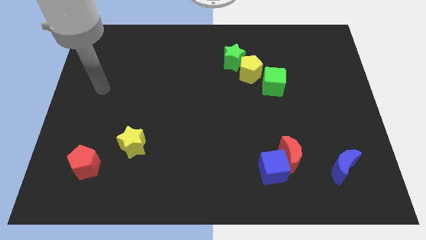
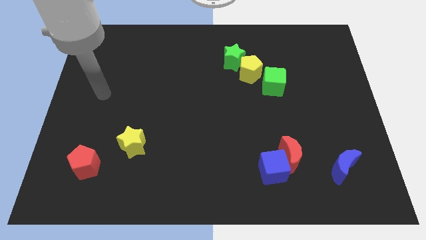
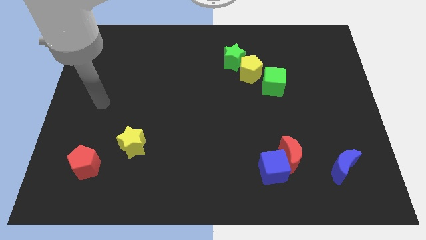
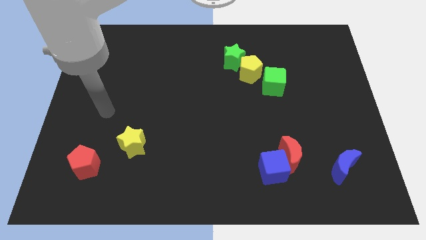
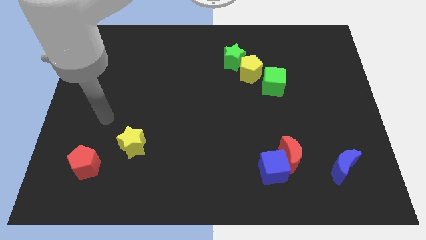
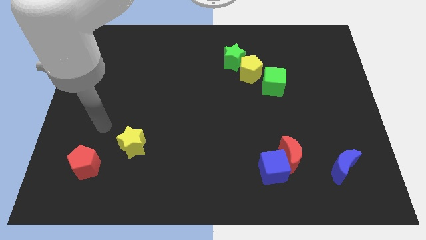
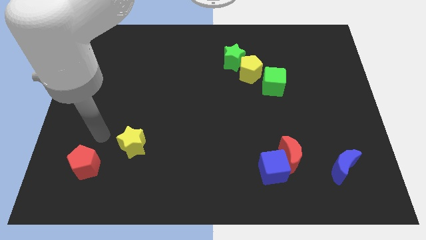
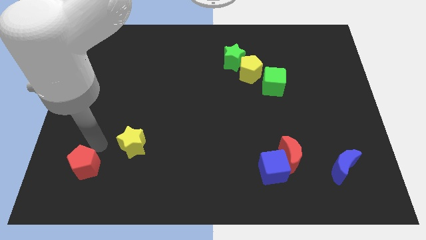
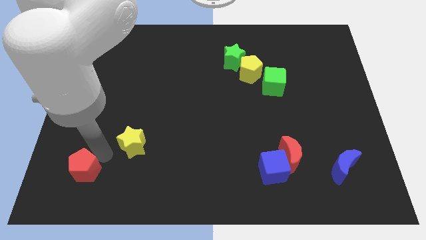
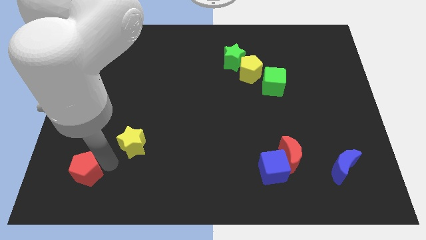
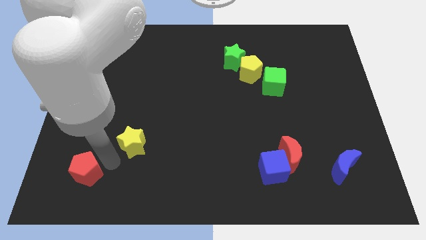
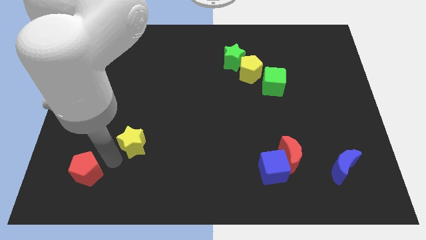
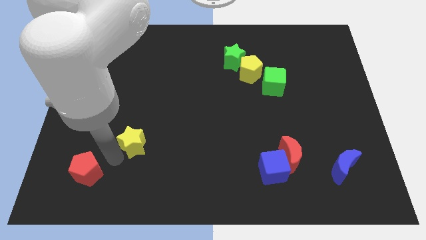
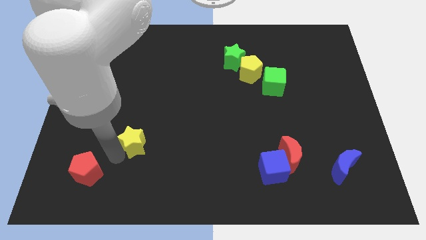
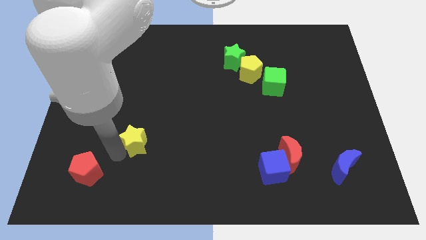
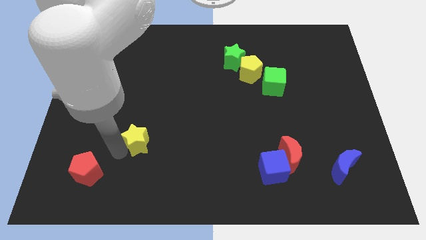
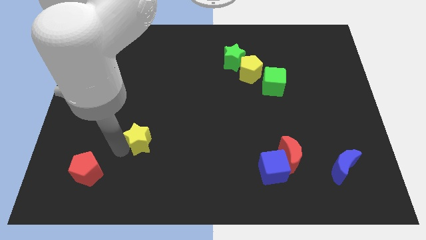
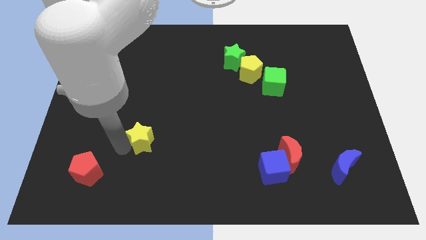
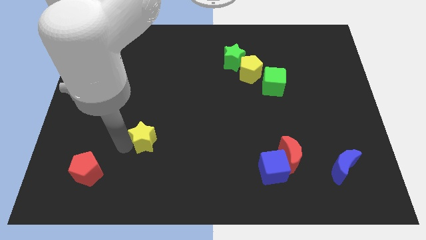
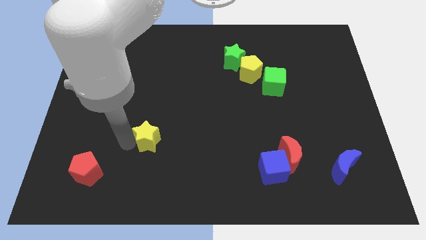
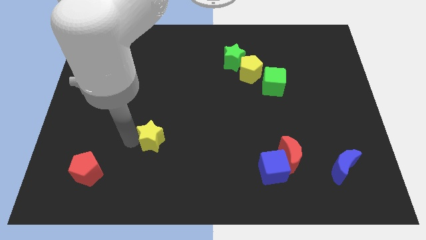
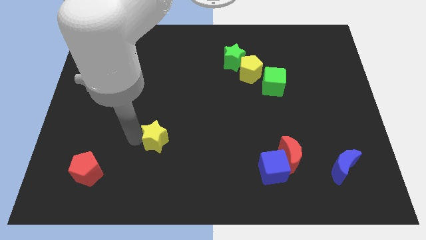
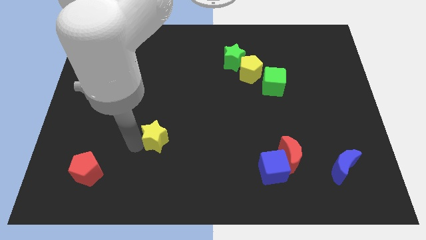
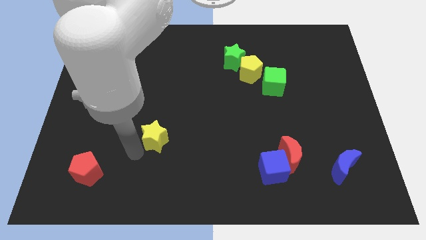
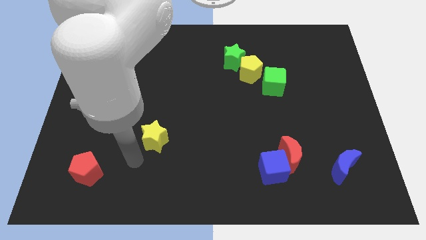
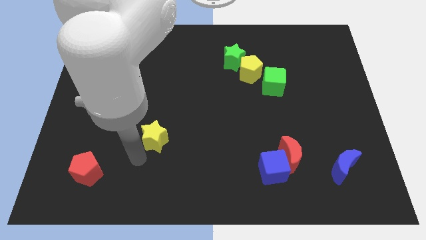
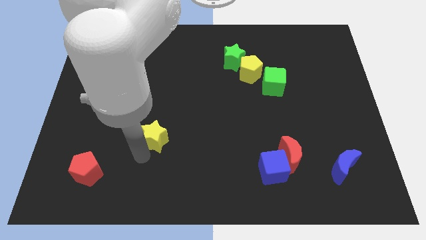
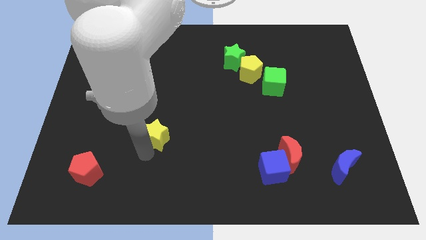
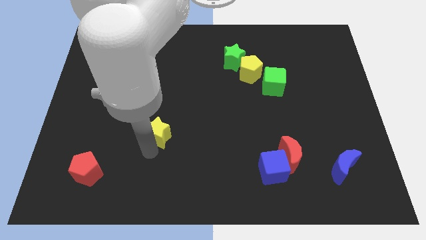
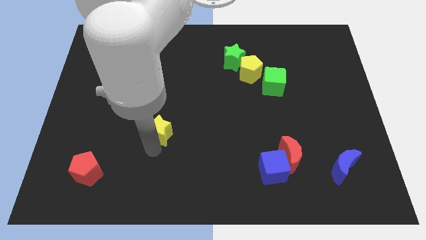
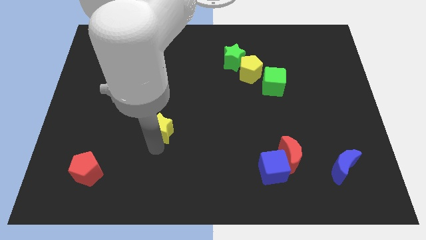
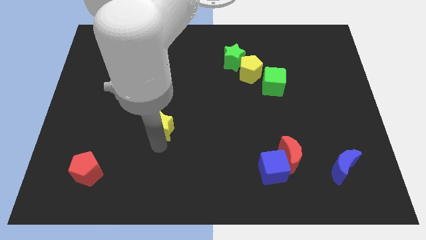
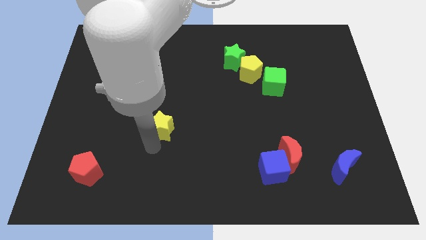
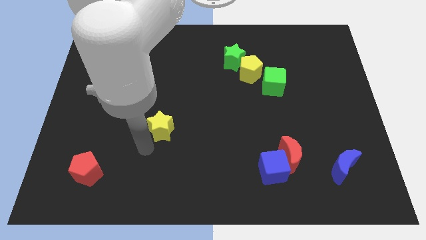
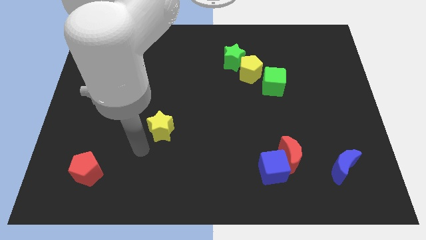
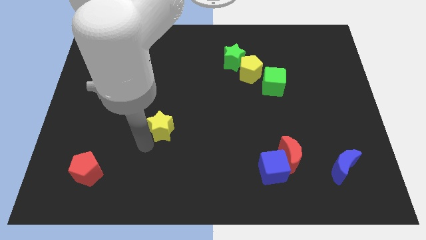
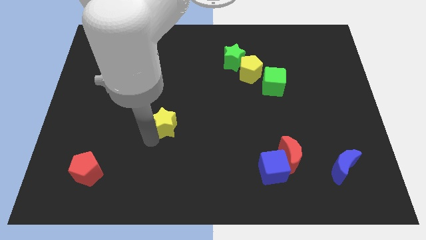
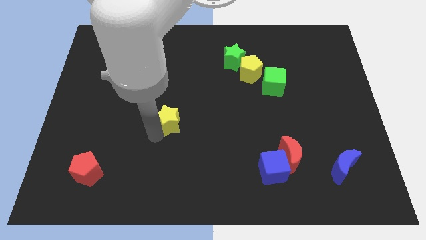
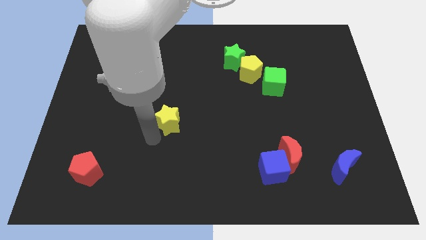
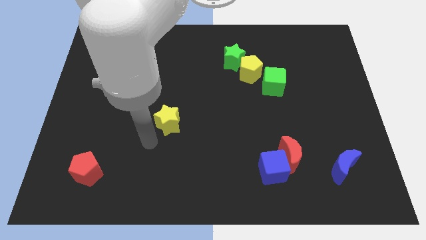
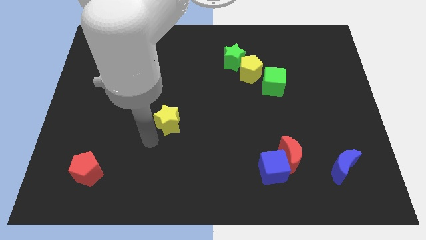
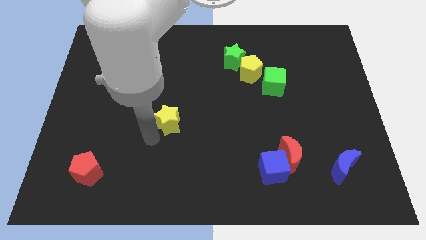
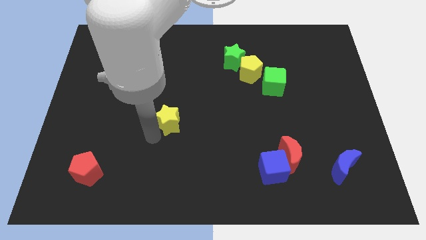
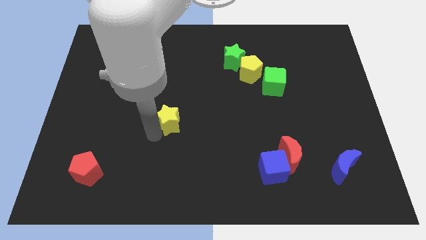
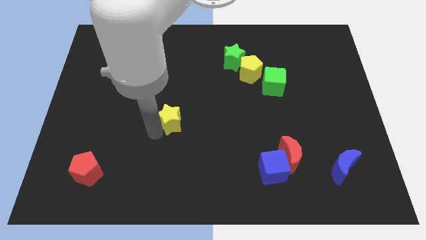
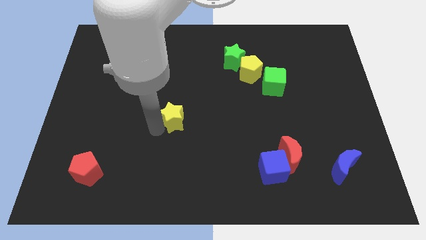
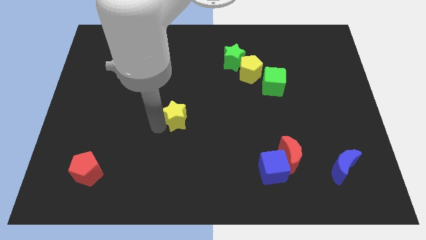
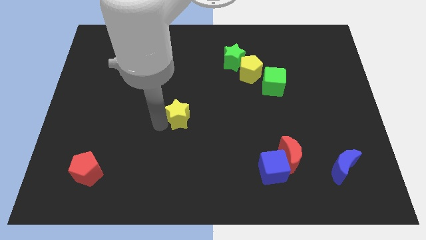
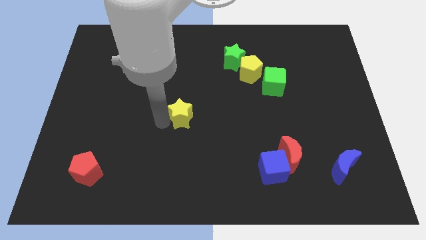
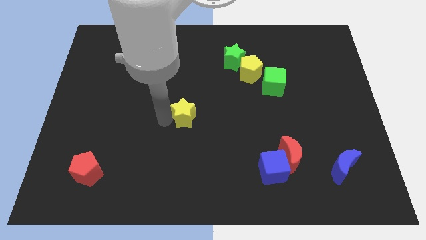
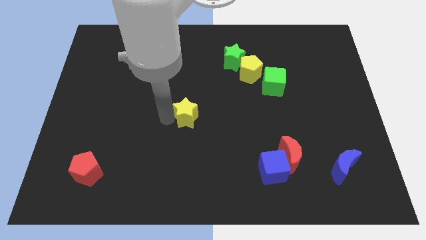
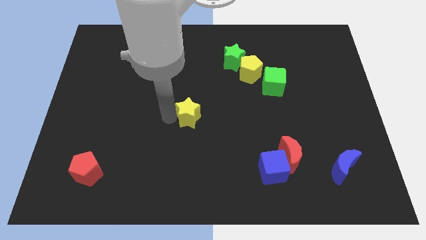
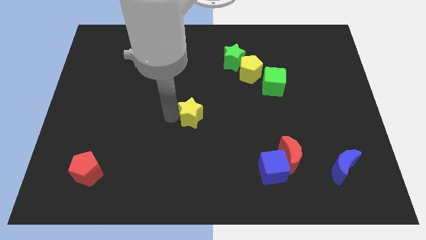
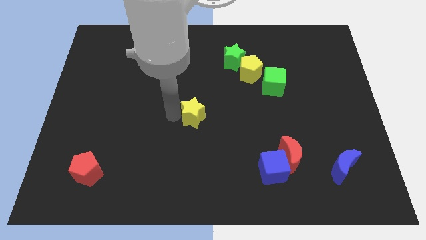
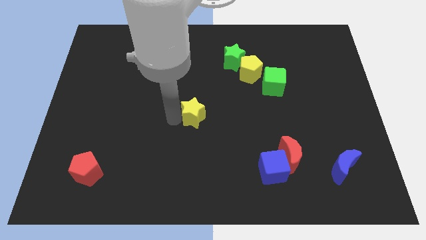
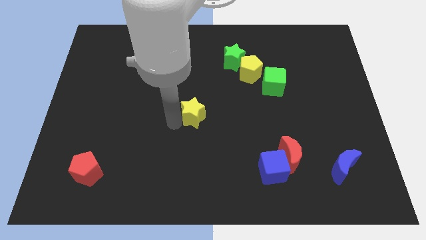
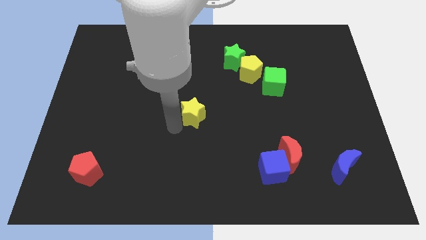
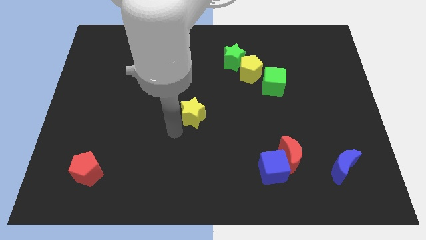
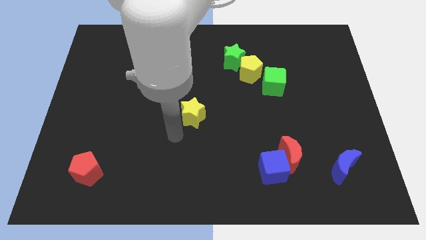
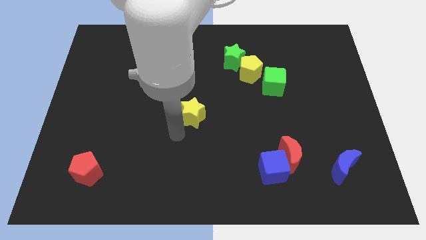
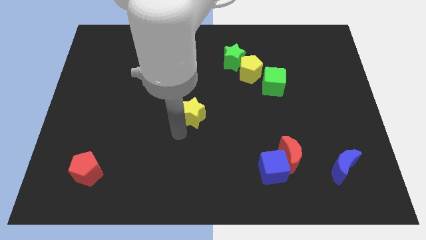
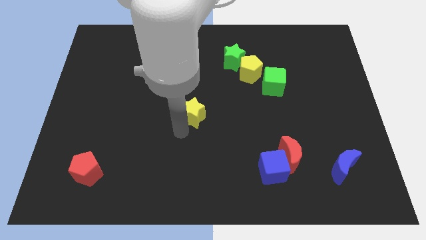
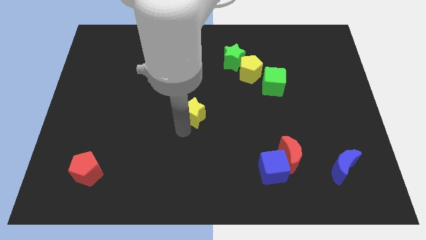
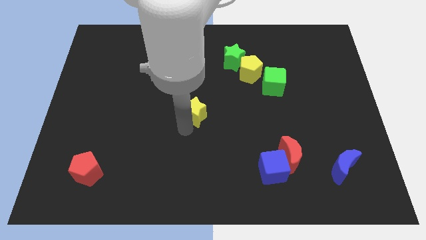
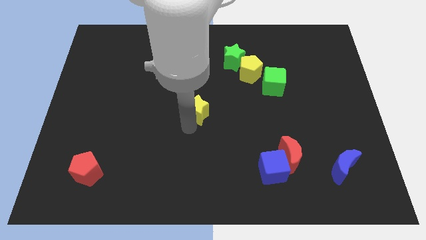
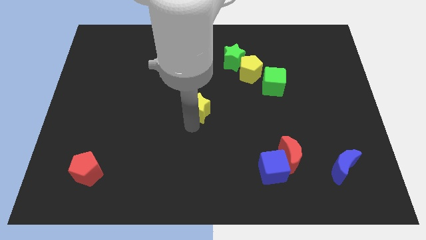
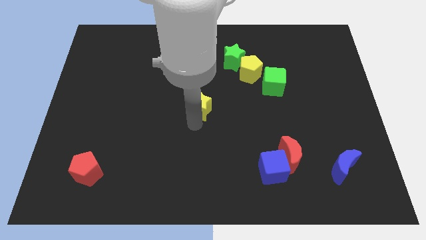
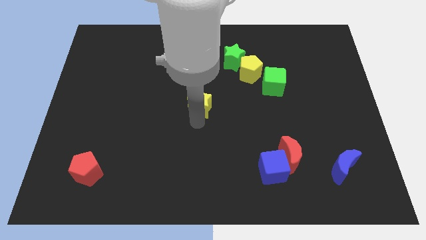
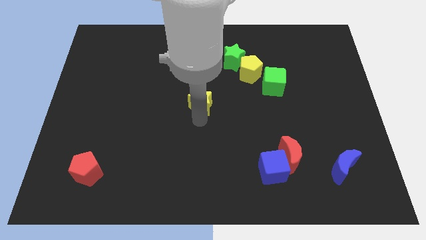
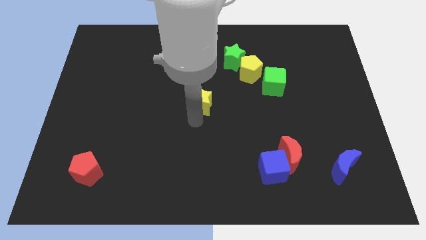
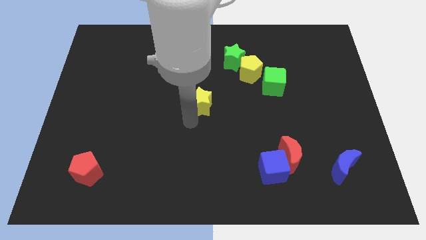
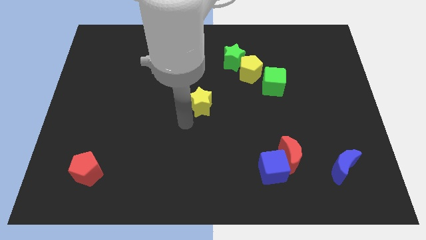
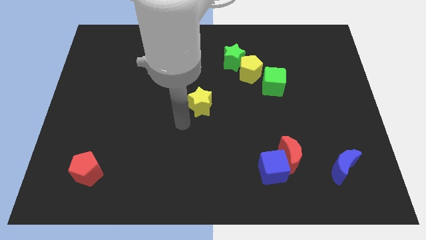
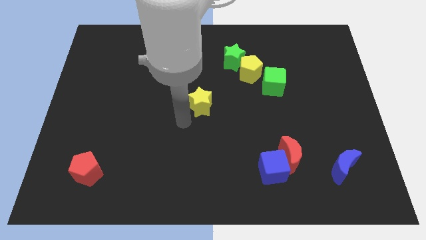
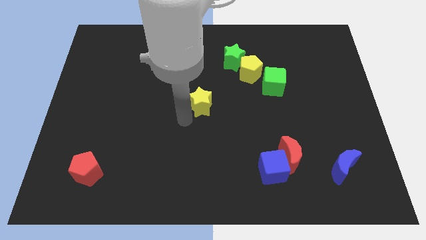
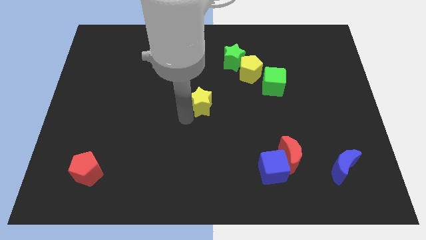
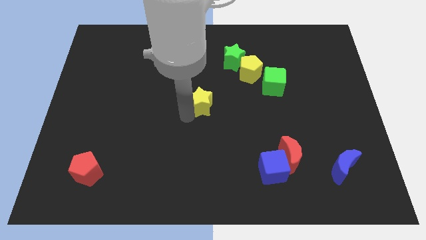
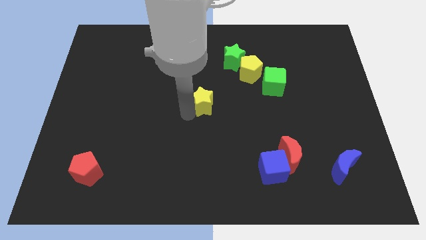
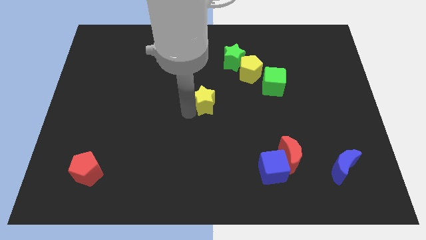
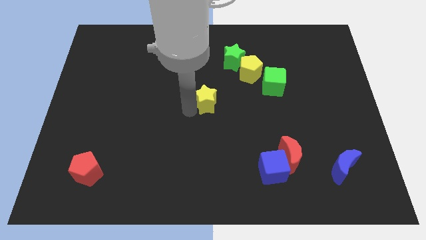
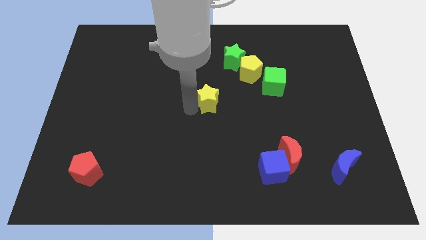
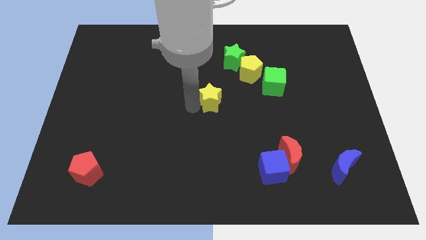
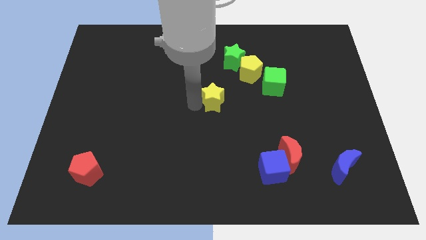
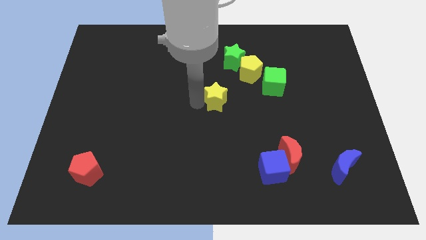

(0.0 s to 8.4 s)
slide the yellow star to the bottom left of the yellow pentagon
